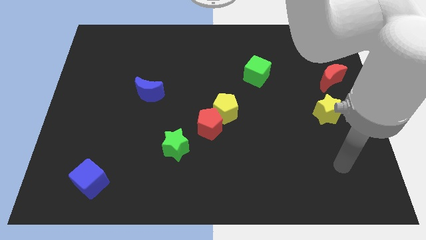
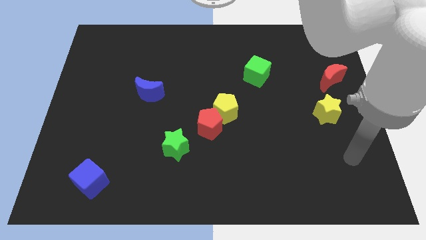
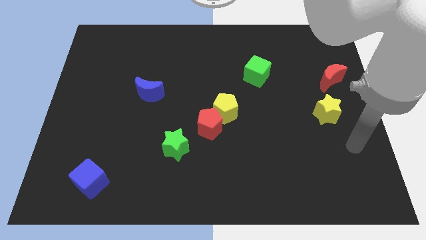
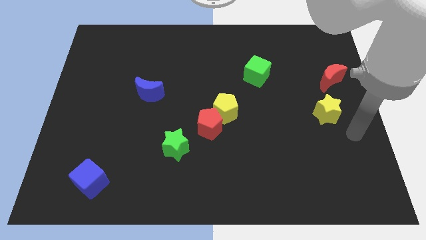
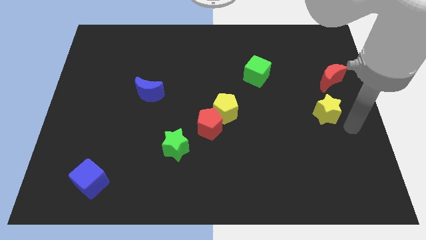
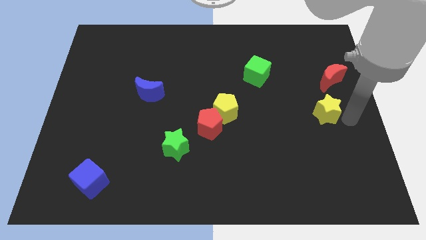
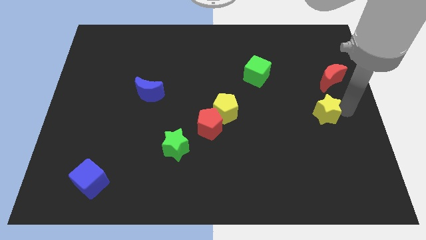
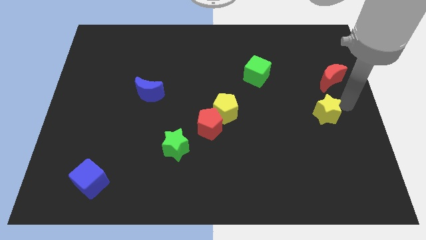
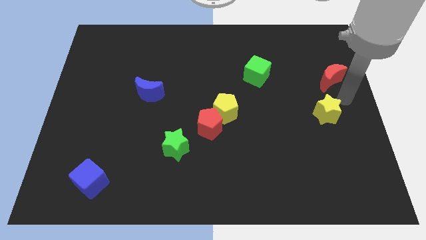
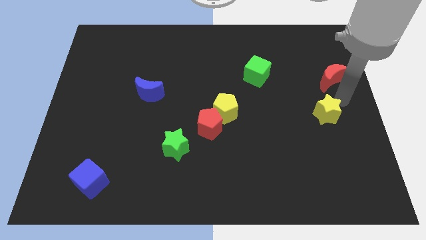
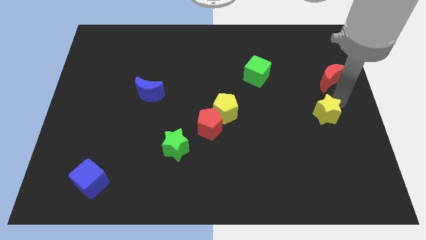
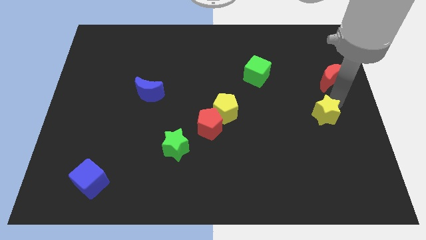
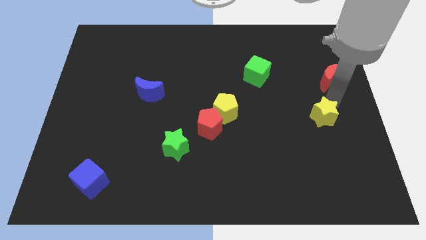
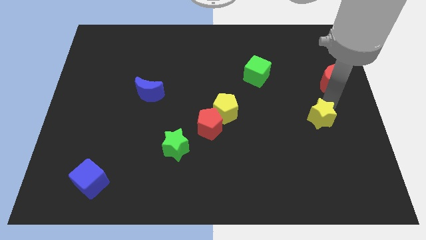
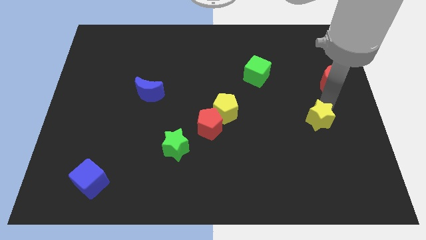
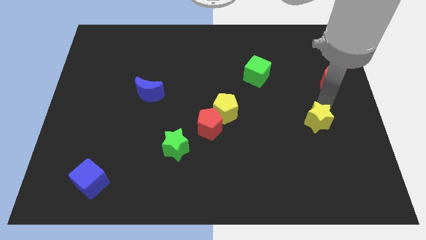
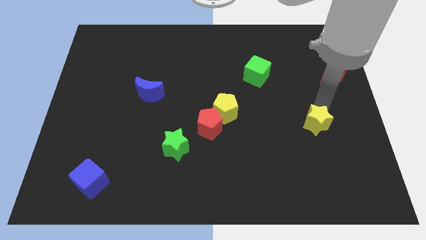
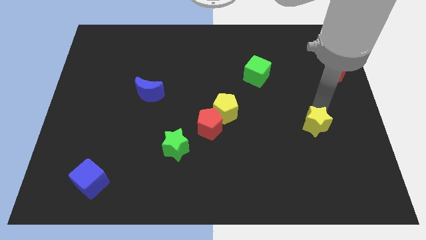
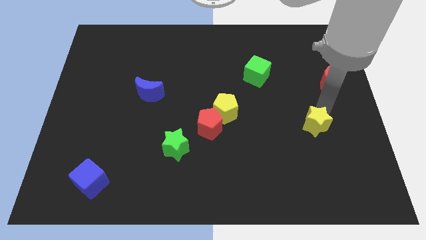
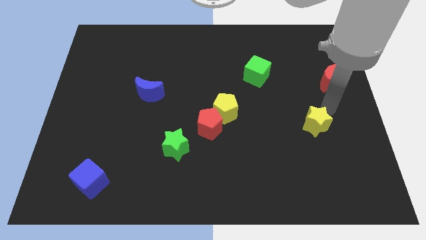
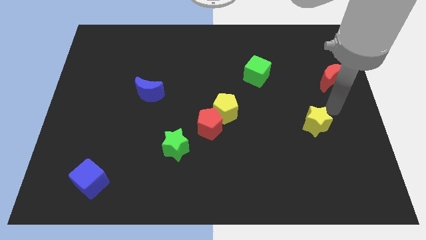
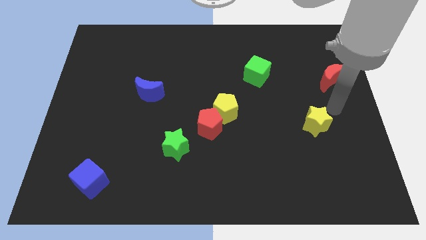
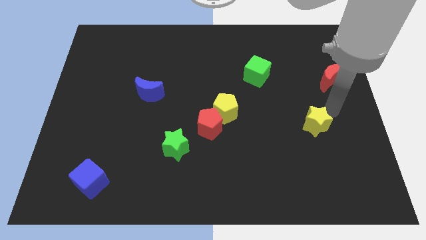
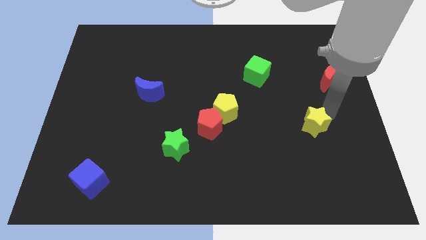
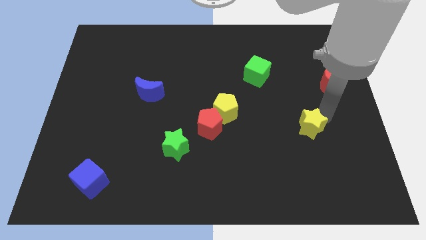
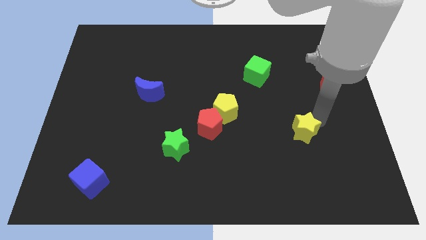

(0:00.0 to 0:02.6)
slightly move the yellow star diagonally downwards and left

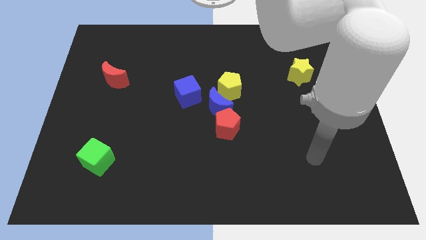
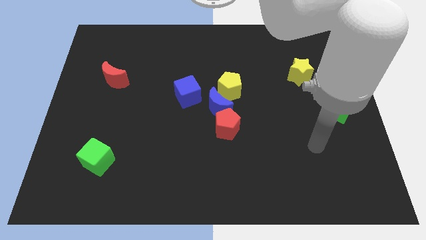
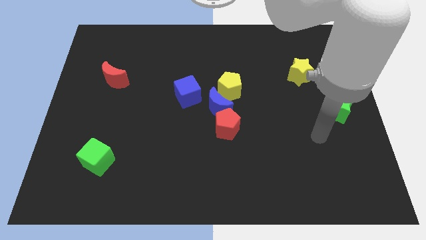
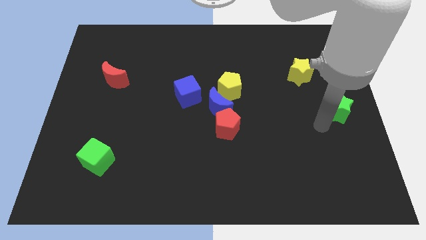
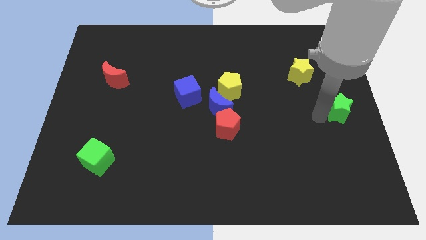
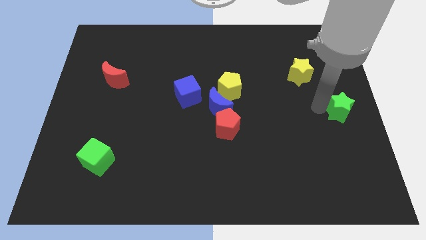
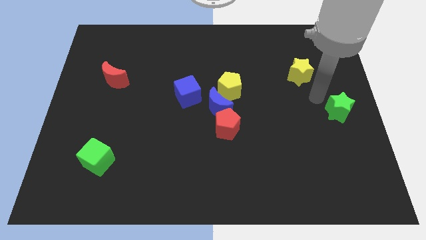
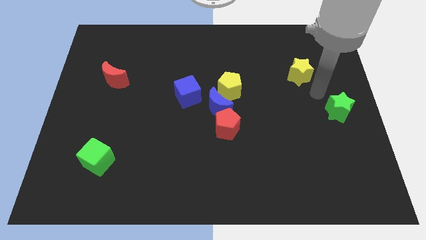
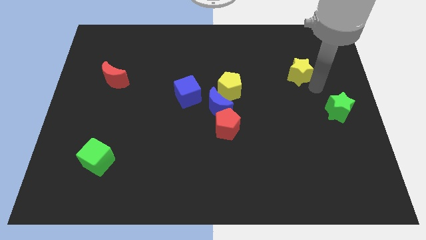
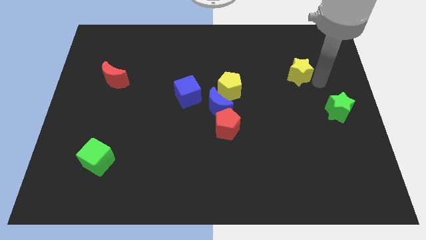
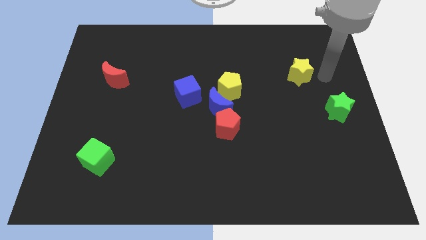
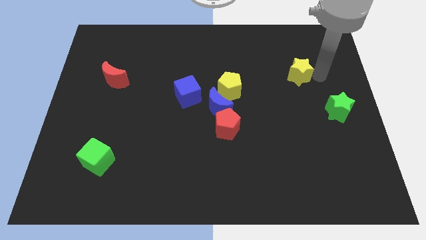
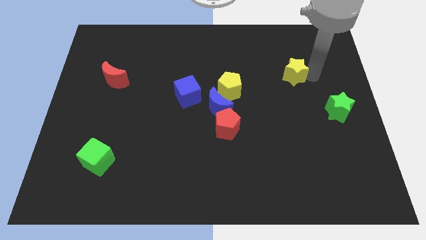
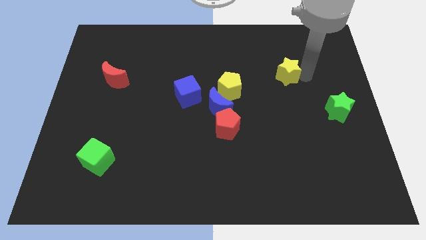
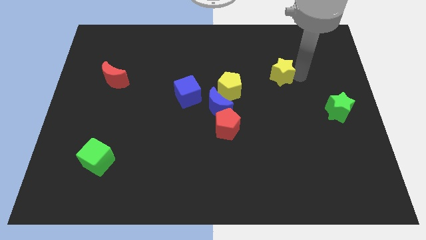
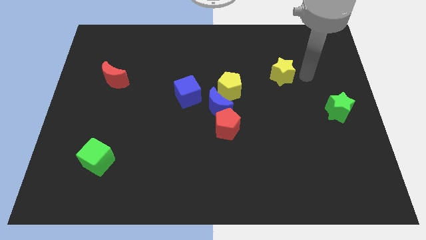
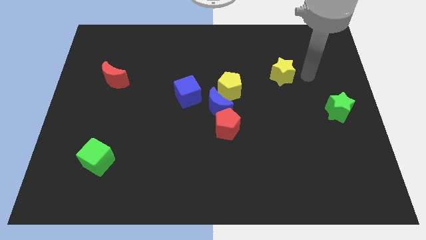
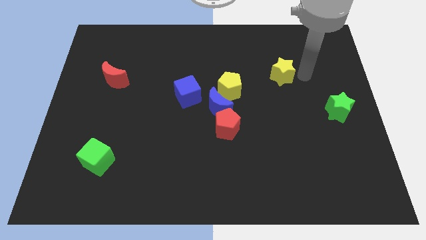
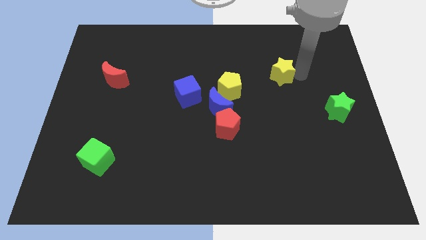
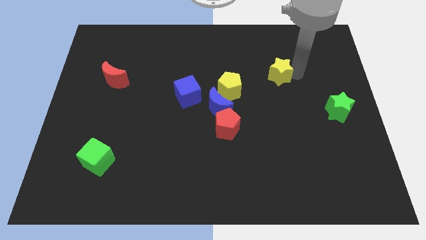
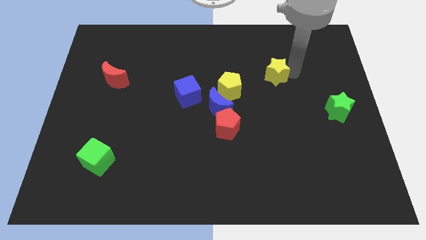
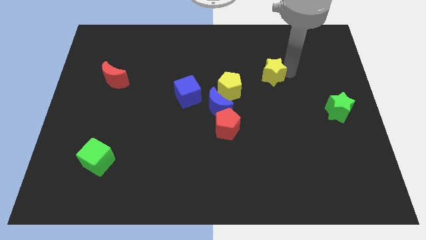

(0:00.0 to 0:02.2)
move the yellow star a little left

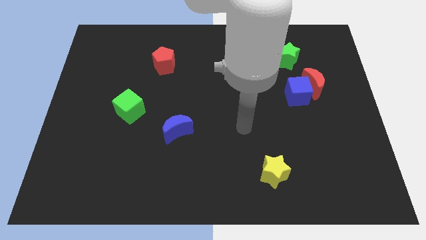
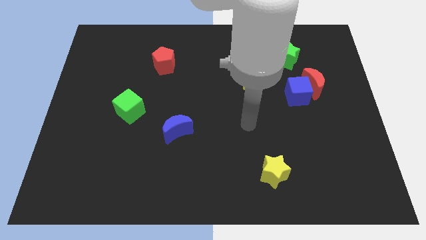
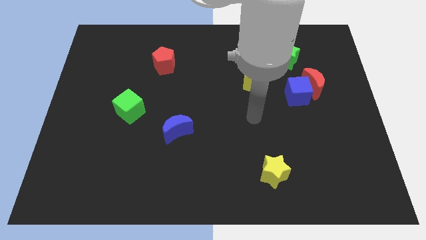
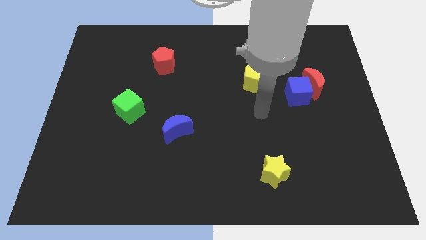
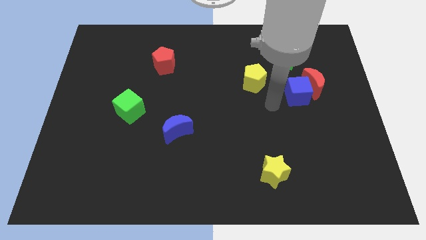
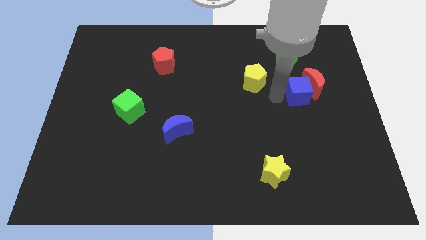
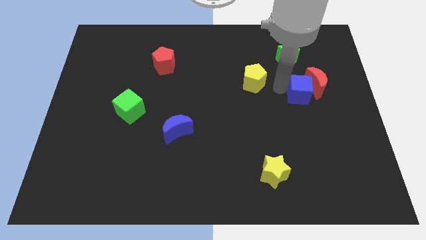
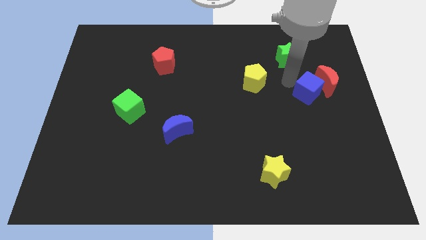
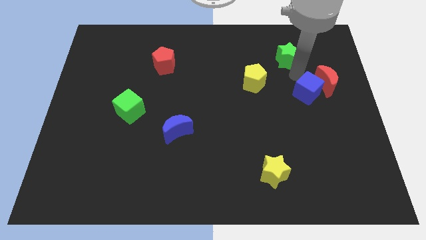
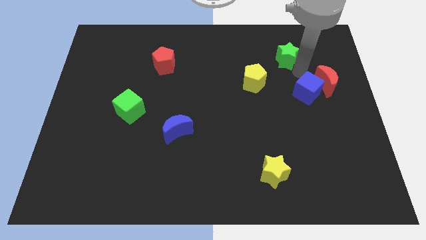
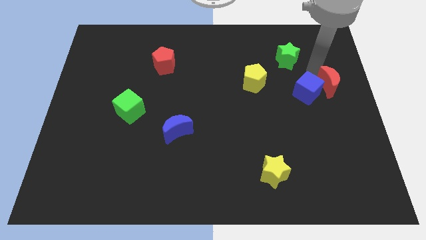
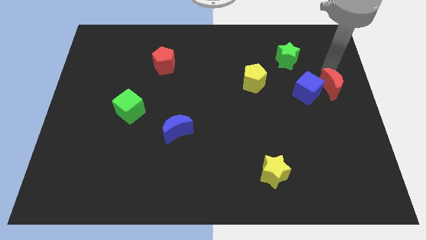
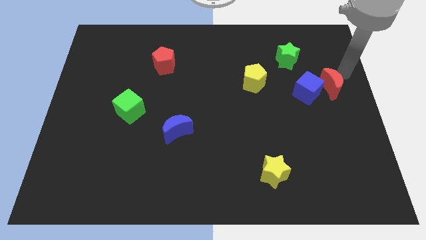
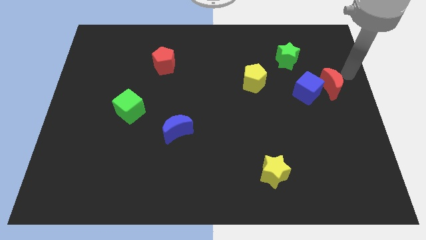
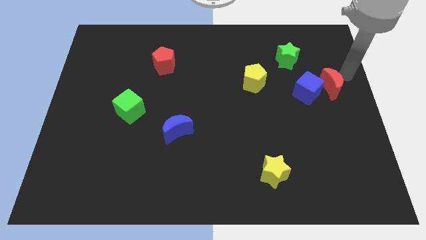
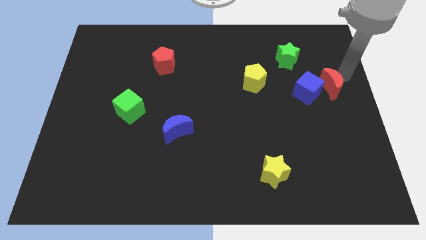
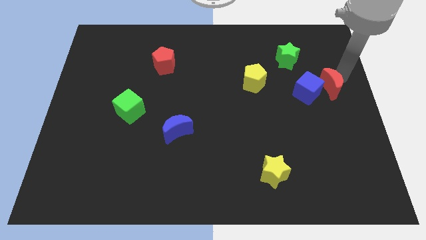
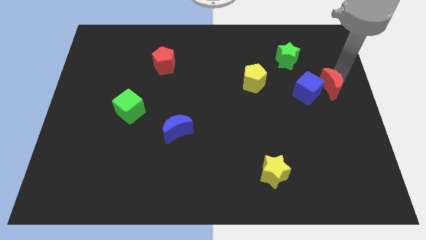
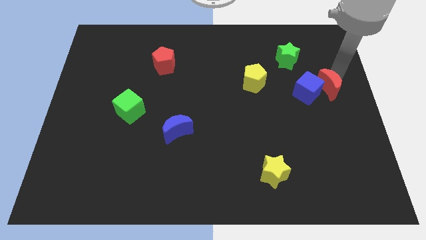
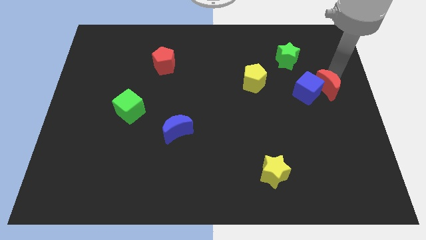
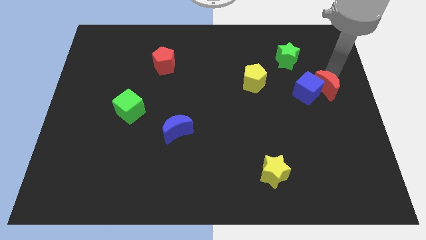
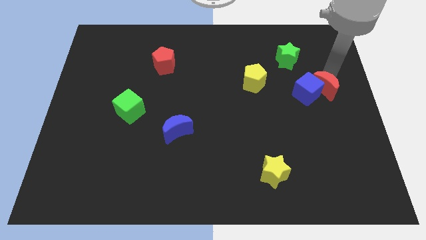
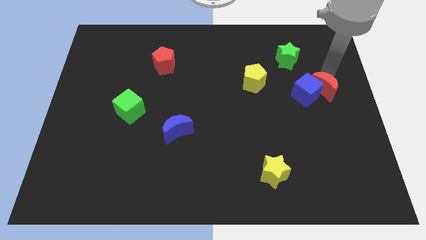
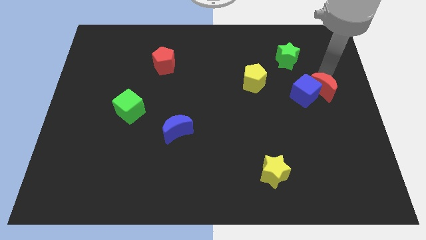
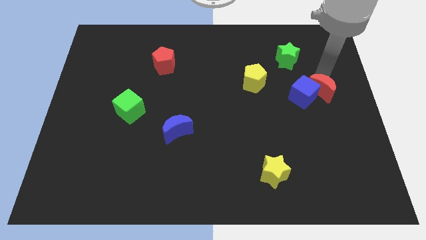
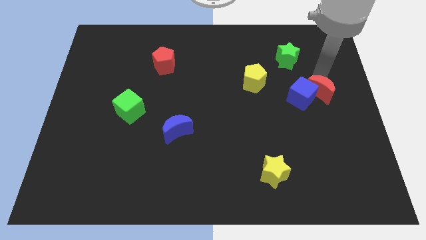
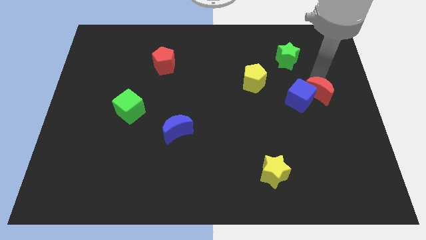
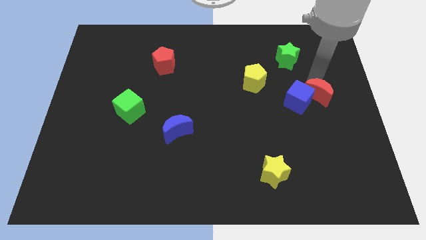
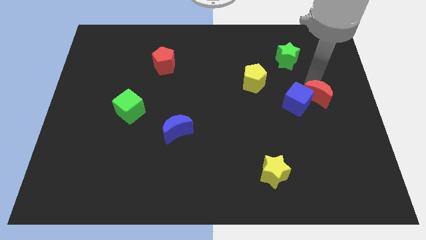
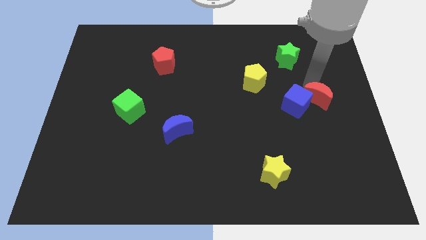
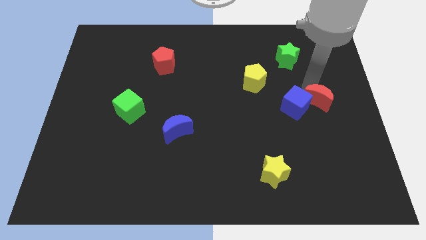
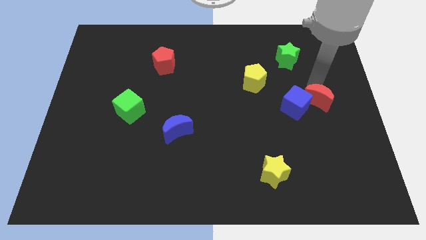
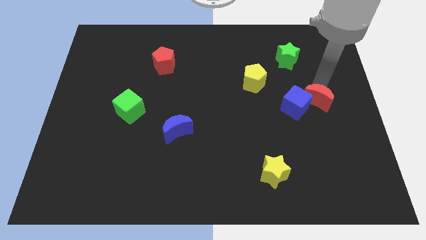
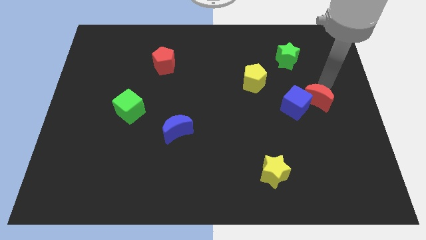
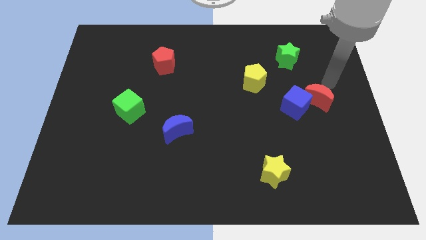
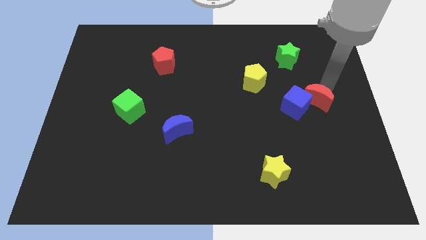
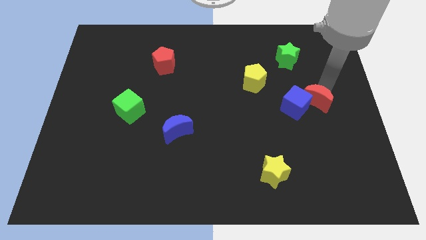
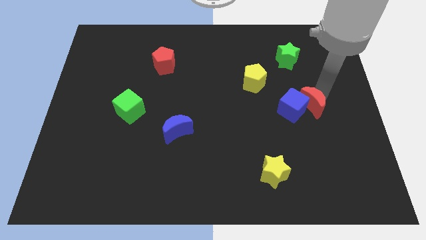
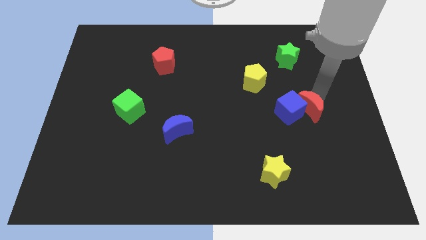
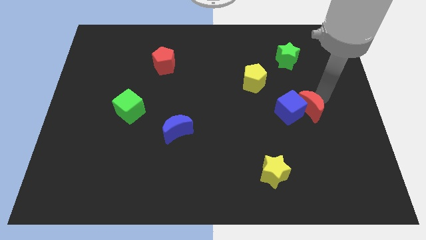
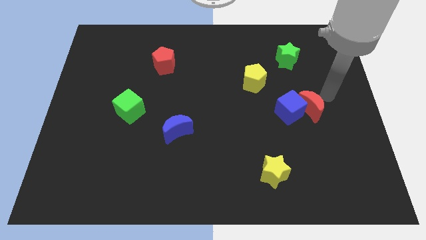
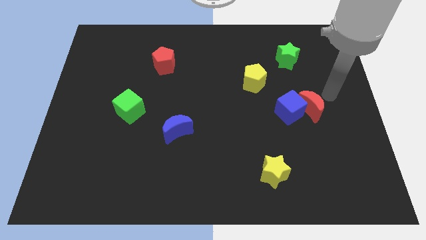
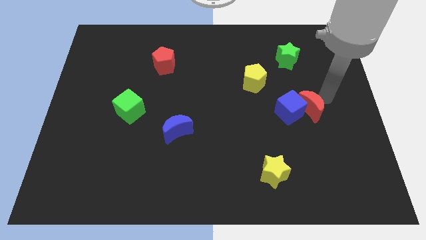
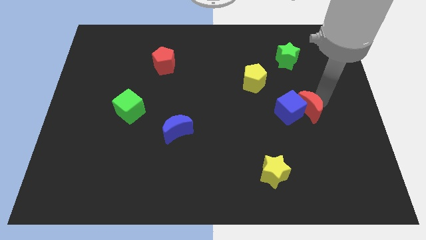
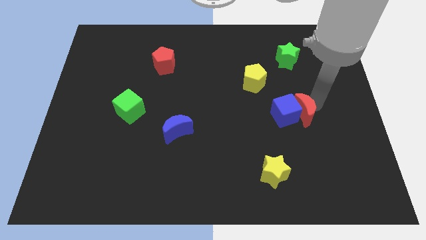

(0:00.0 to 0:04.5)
slightly slide the red moon down and then left
